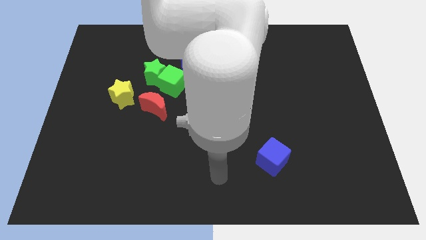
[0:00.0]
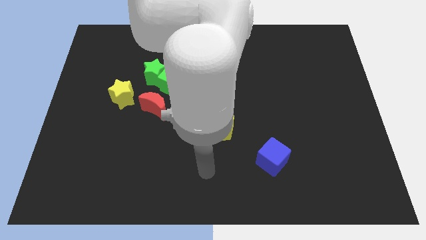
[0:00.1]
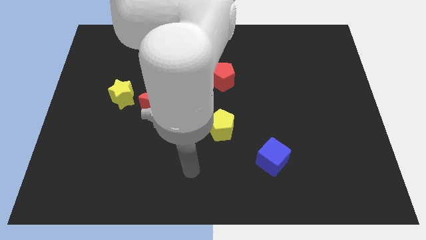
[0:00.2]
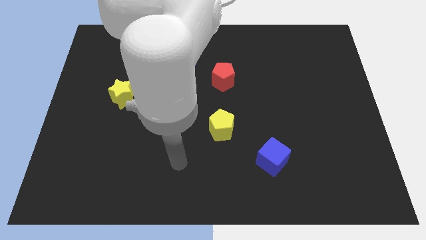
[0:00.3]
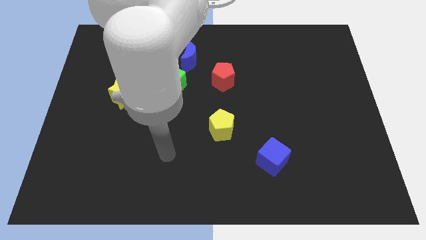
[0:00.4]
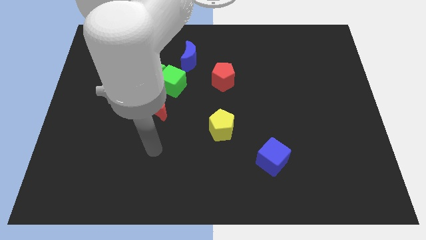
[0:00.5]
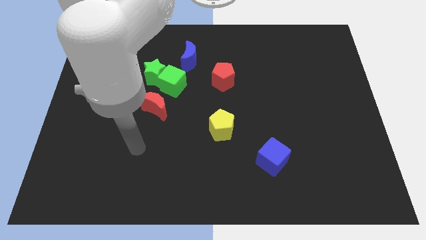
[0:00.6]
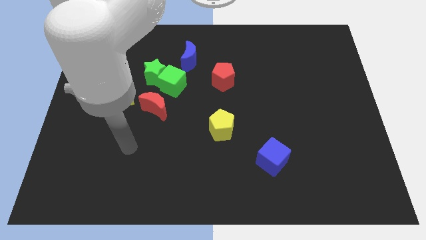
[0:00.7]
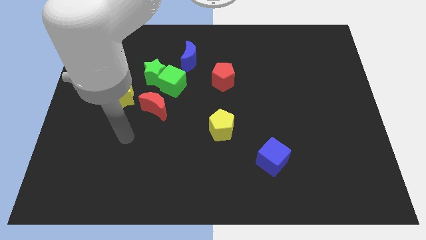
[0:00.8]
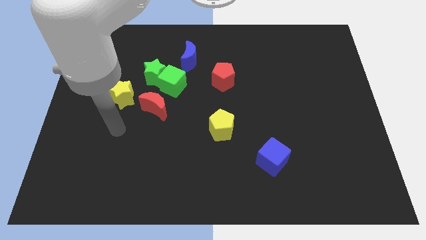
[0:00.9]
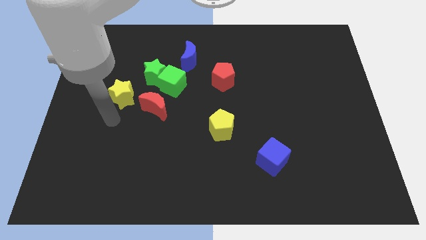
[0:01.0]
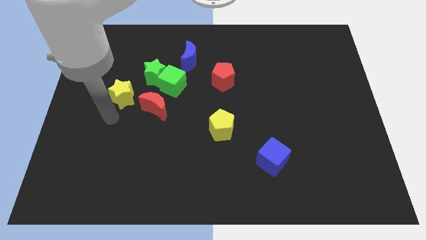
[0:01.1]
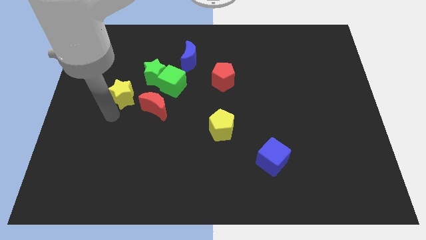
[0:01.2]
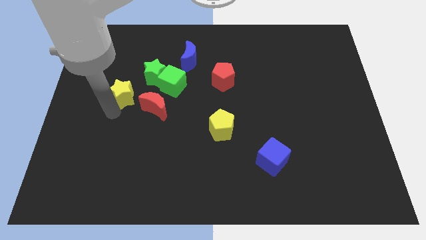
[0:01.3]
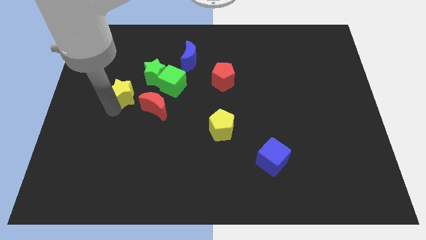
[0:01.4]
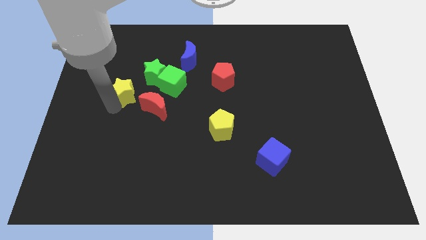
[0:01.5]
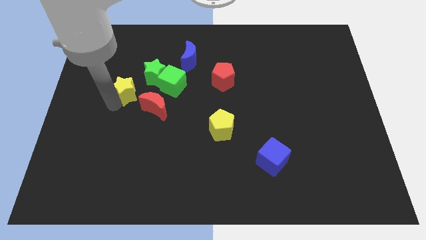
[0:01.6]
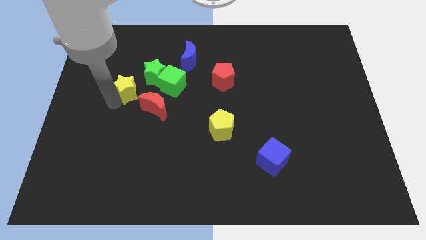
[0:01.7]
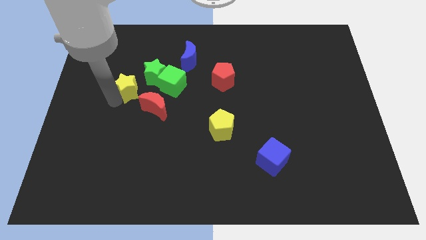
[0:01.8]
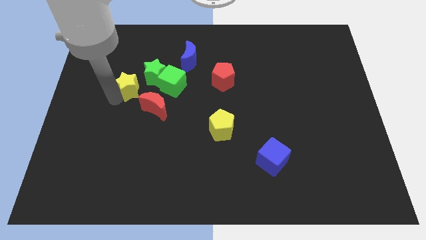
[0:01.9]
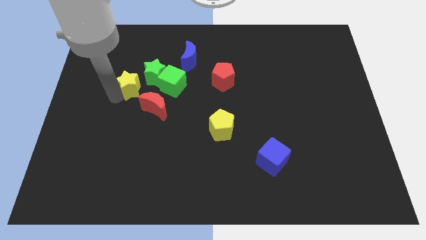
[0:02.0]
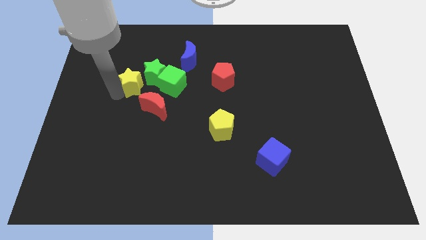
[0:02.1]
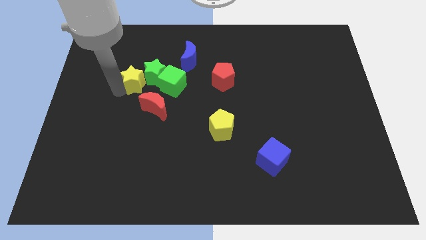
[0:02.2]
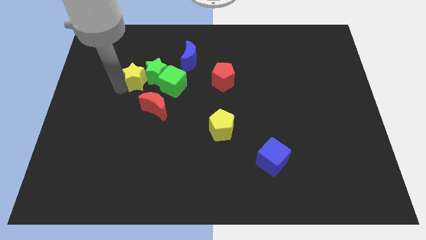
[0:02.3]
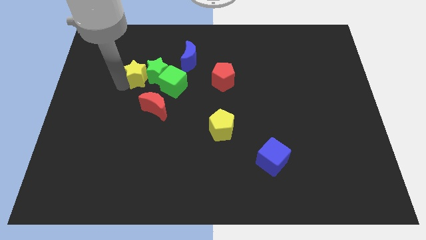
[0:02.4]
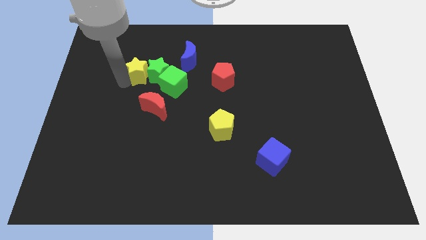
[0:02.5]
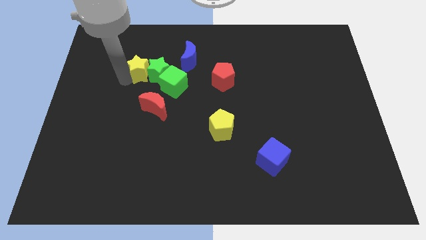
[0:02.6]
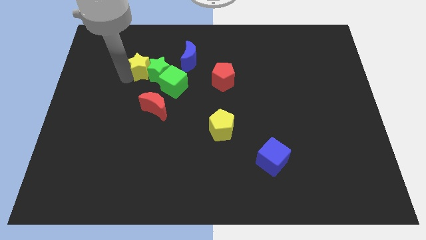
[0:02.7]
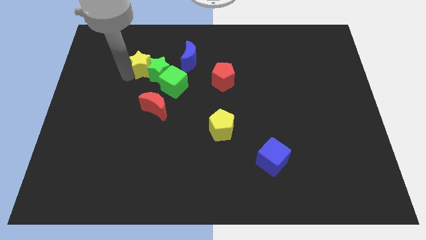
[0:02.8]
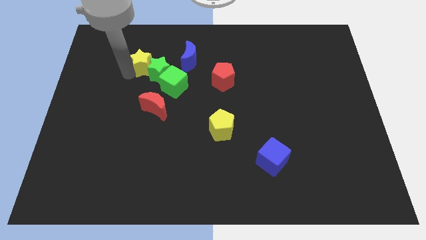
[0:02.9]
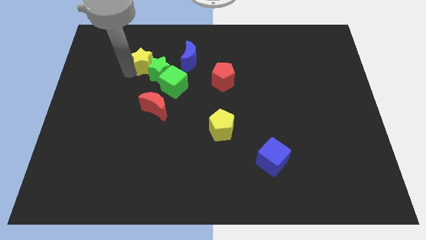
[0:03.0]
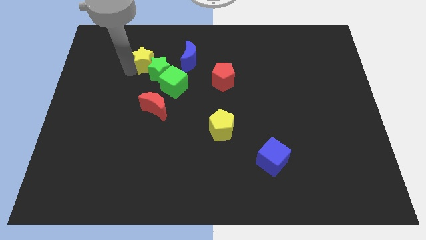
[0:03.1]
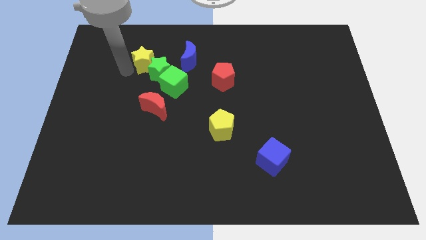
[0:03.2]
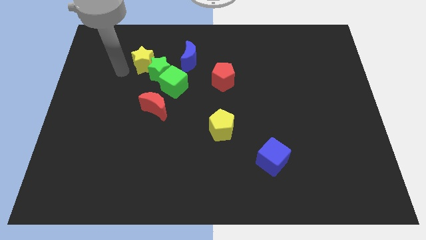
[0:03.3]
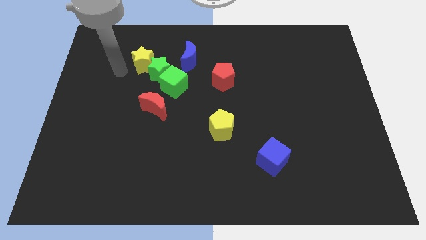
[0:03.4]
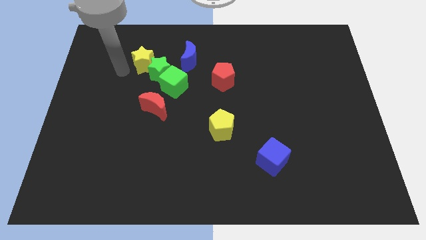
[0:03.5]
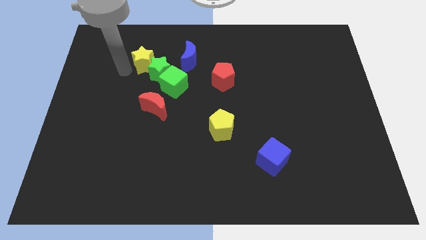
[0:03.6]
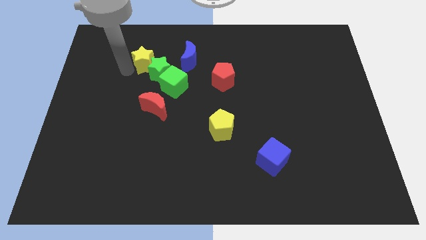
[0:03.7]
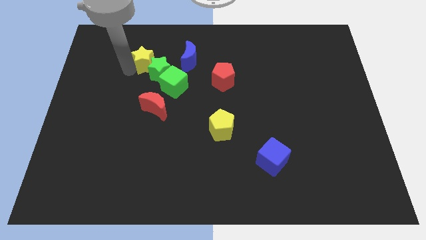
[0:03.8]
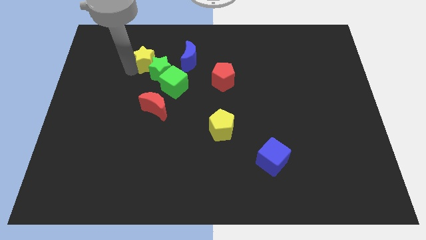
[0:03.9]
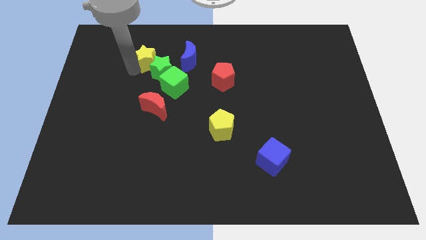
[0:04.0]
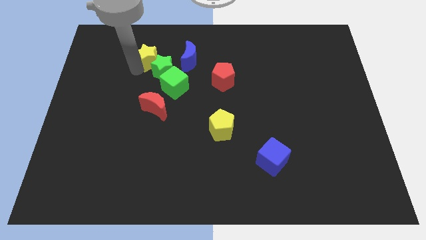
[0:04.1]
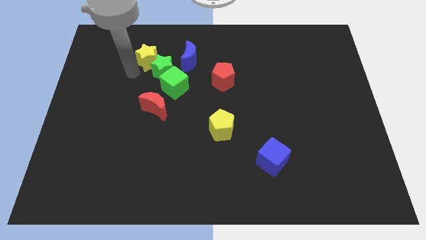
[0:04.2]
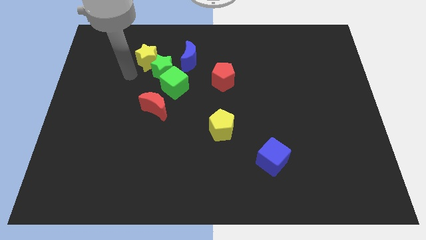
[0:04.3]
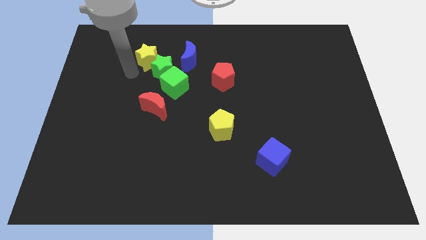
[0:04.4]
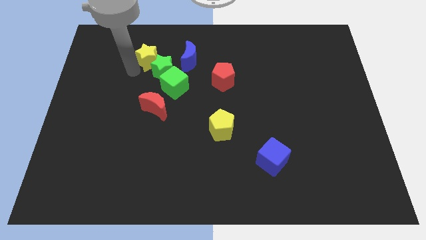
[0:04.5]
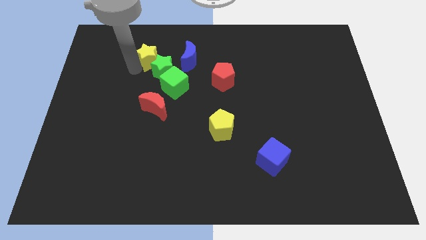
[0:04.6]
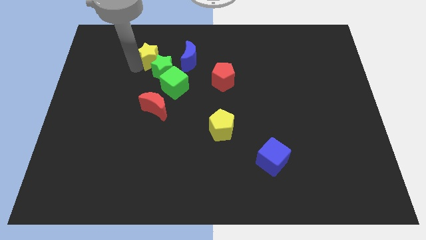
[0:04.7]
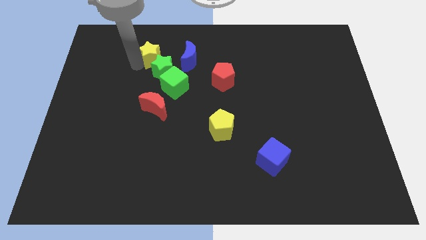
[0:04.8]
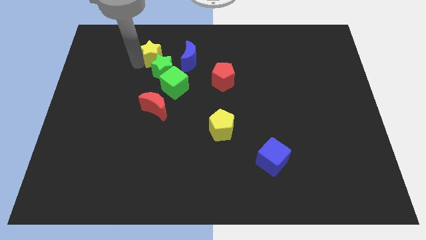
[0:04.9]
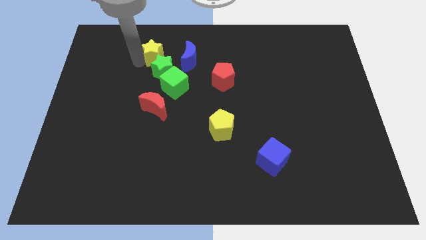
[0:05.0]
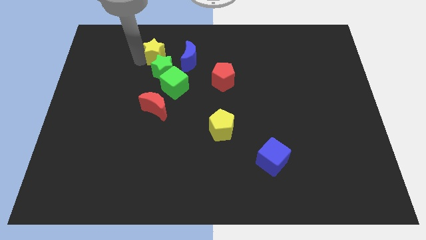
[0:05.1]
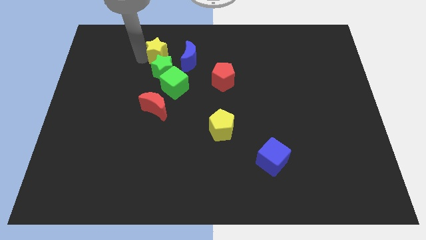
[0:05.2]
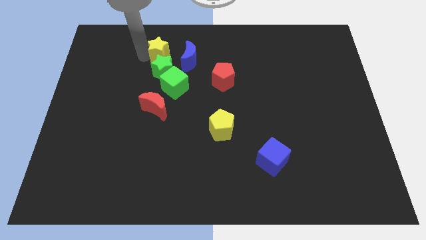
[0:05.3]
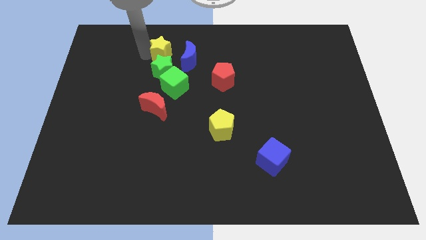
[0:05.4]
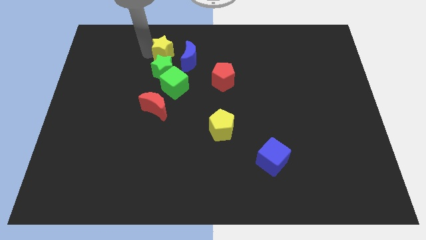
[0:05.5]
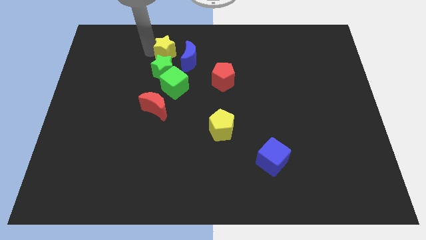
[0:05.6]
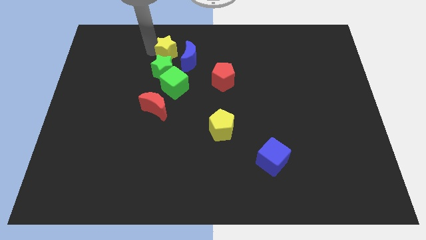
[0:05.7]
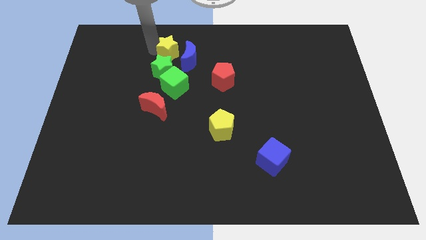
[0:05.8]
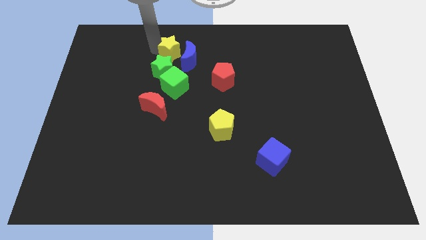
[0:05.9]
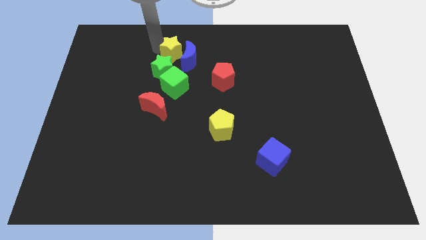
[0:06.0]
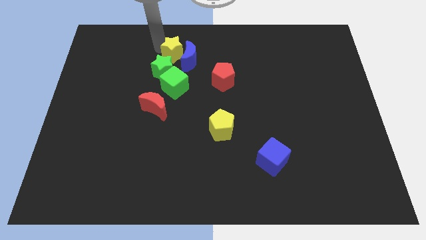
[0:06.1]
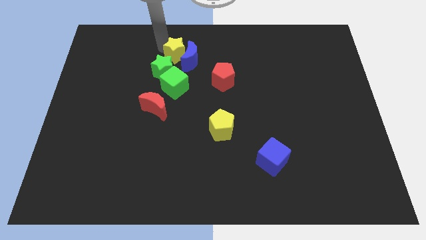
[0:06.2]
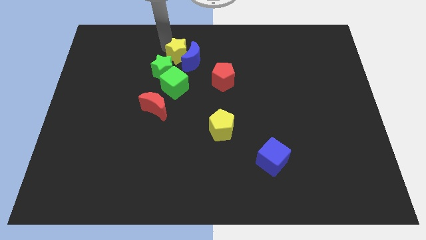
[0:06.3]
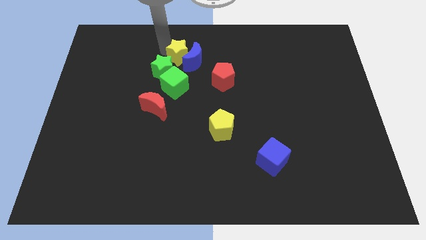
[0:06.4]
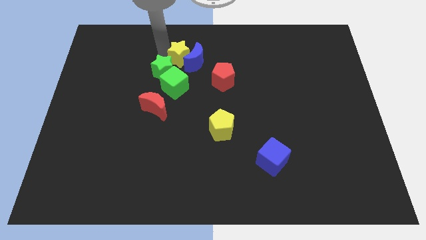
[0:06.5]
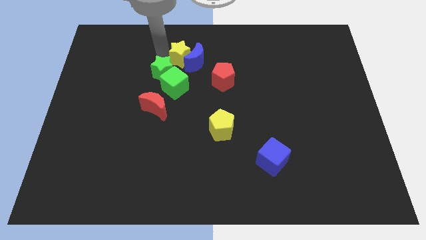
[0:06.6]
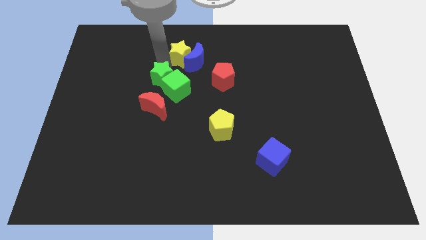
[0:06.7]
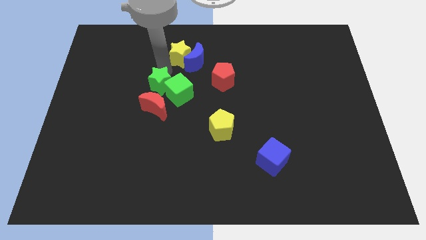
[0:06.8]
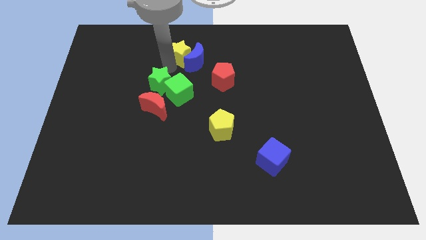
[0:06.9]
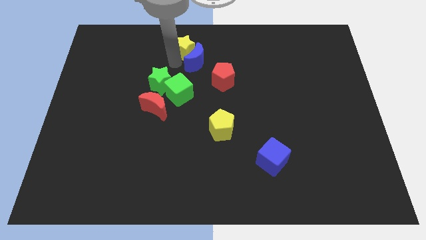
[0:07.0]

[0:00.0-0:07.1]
put the yellow star to the top side

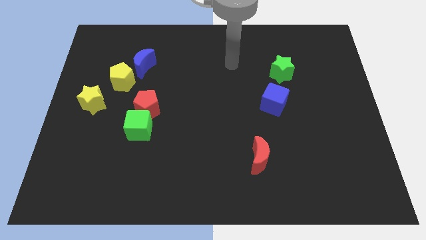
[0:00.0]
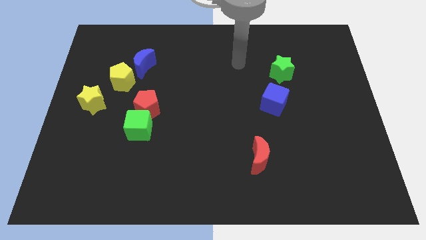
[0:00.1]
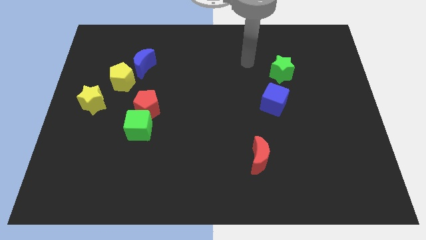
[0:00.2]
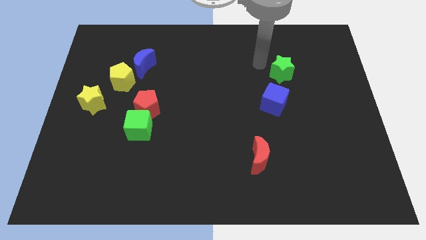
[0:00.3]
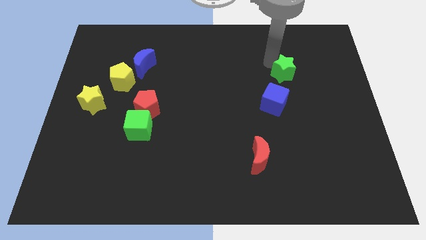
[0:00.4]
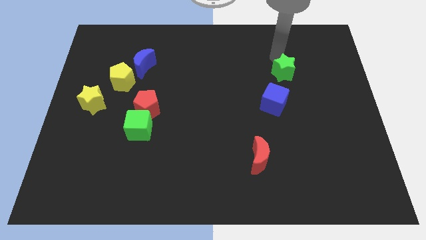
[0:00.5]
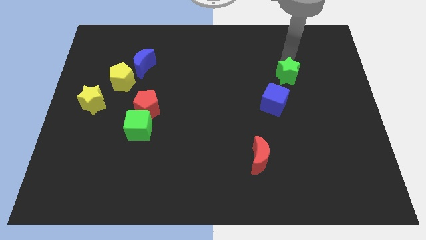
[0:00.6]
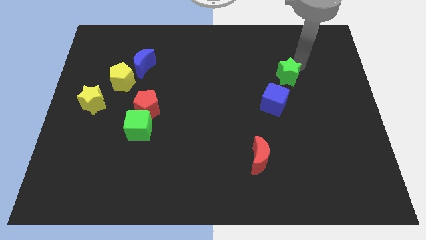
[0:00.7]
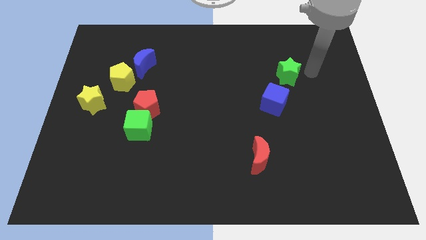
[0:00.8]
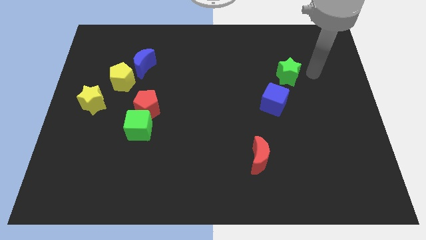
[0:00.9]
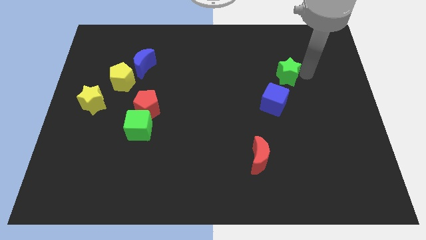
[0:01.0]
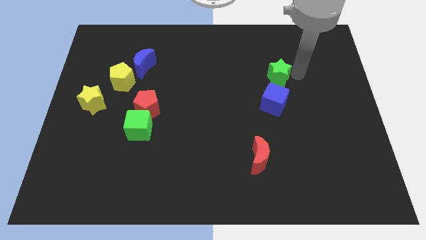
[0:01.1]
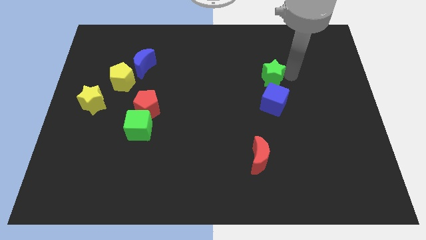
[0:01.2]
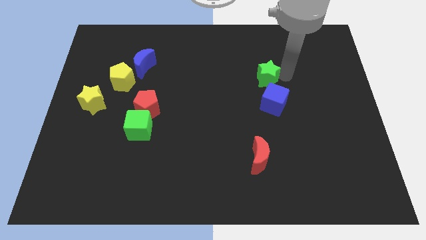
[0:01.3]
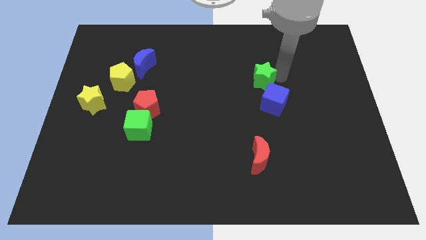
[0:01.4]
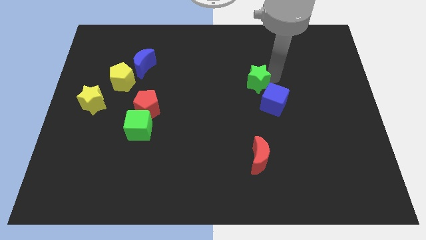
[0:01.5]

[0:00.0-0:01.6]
move the green star to the center of the board
